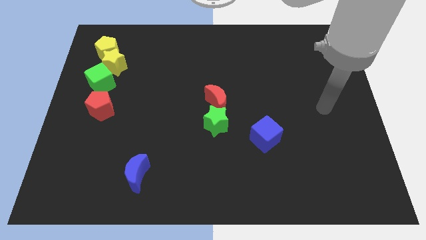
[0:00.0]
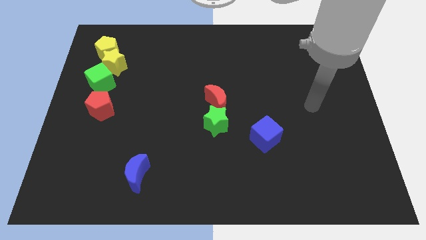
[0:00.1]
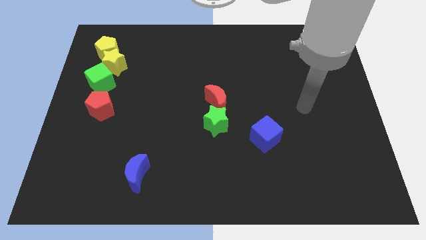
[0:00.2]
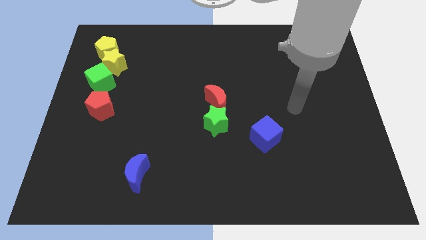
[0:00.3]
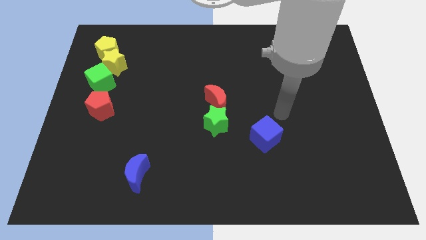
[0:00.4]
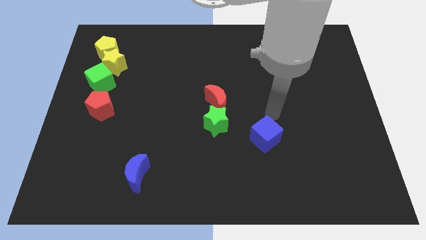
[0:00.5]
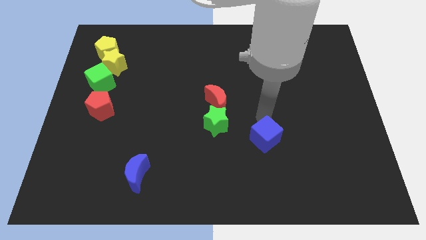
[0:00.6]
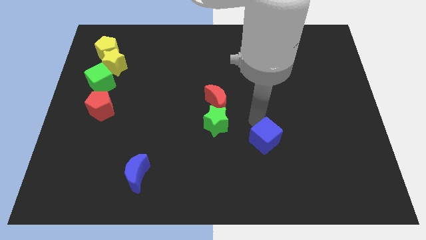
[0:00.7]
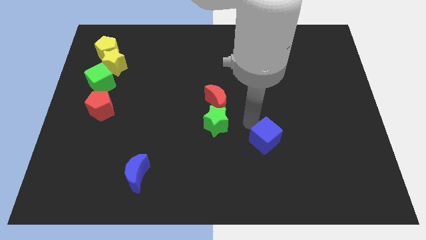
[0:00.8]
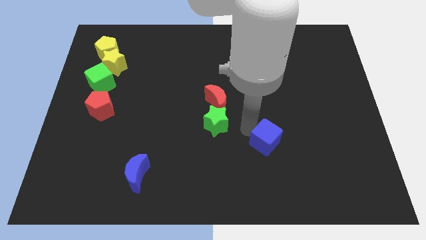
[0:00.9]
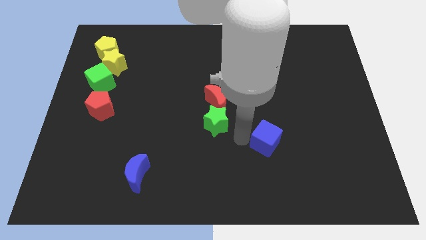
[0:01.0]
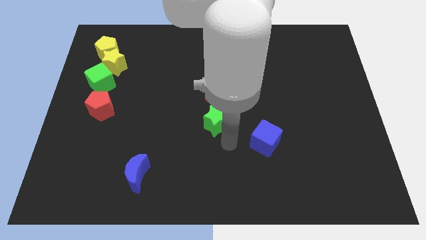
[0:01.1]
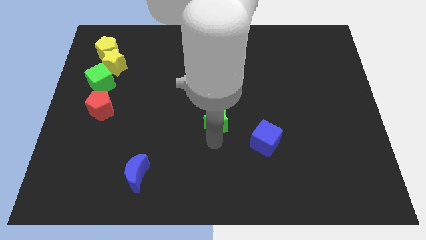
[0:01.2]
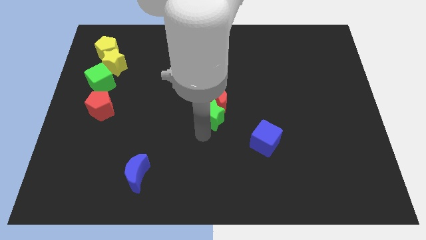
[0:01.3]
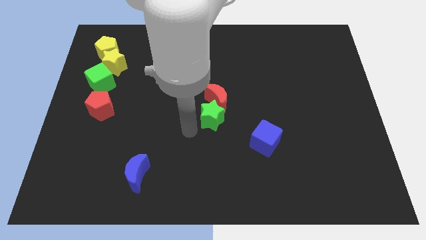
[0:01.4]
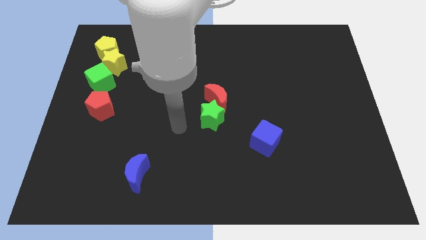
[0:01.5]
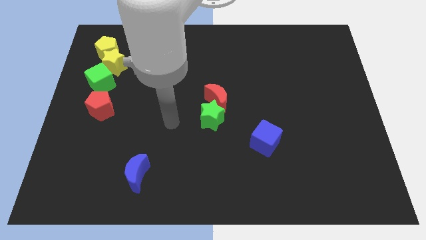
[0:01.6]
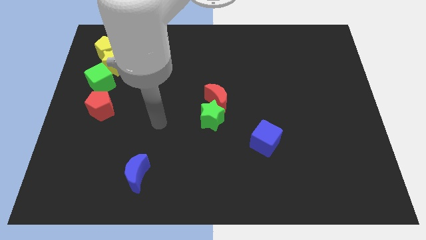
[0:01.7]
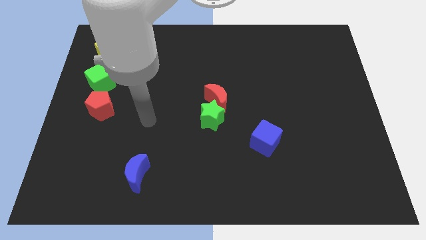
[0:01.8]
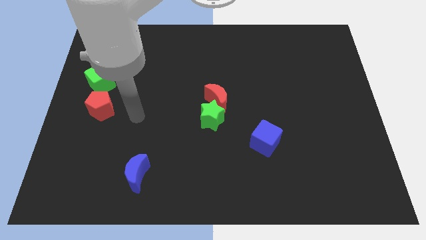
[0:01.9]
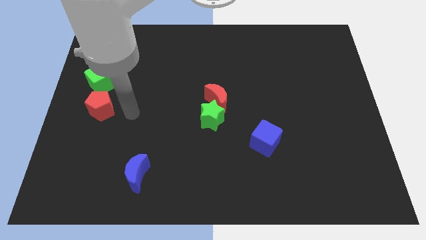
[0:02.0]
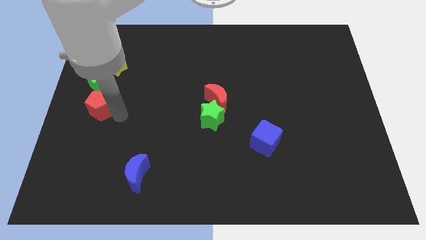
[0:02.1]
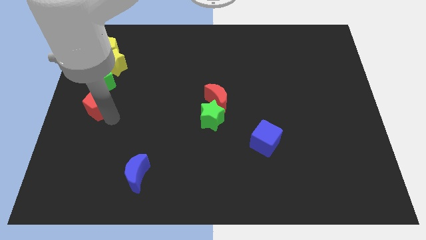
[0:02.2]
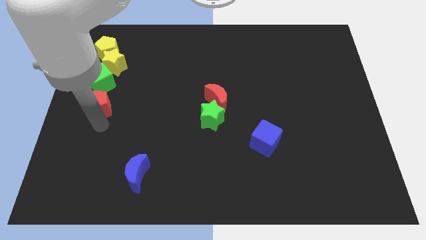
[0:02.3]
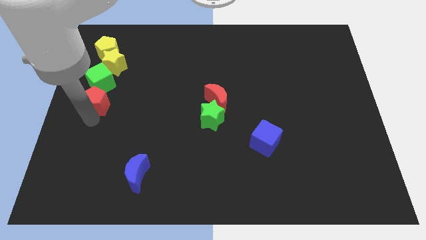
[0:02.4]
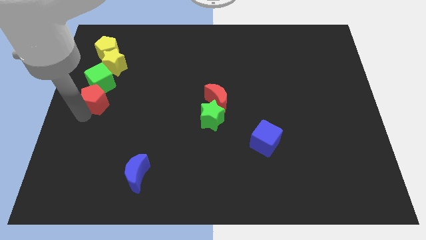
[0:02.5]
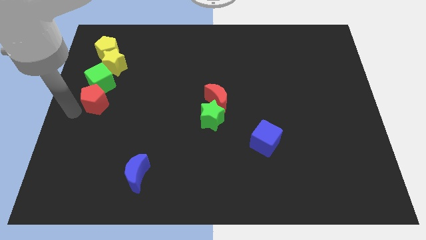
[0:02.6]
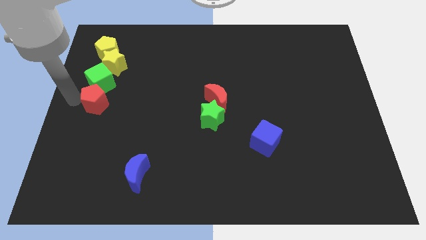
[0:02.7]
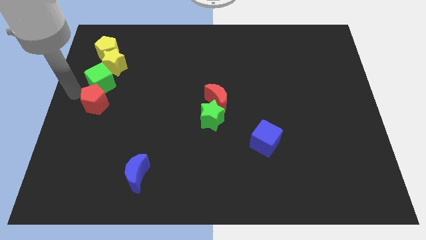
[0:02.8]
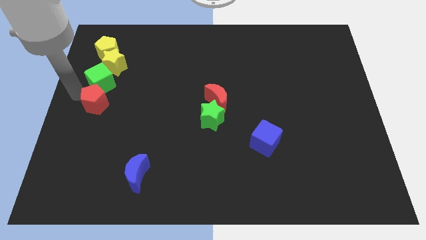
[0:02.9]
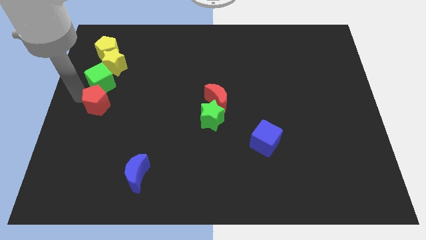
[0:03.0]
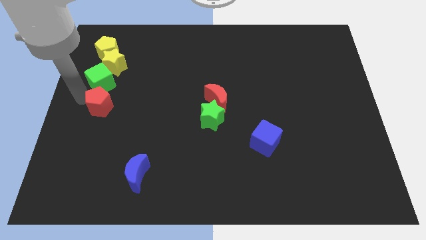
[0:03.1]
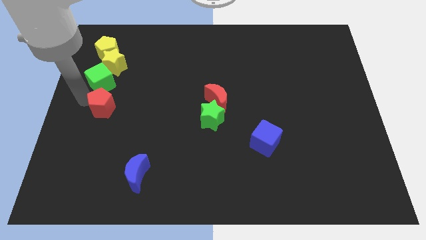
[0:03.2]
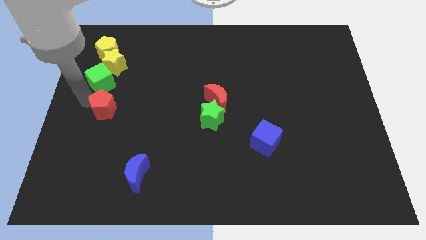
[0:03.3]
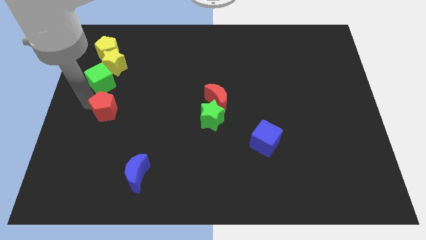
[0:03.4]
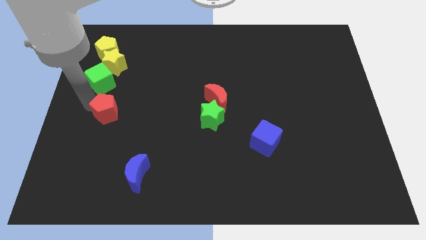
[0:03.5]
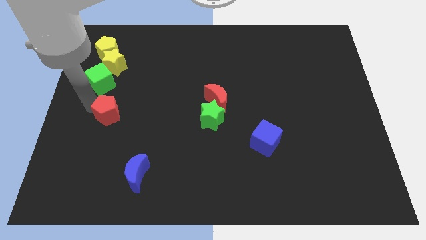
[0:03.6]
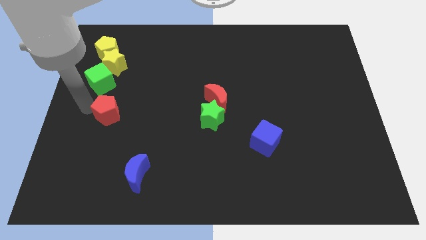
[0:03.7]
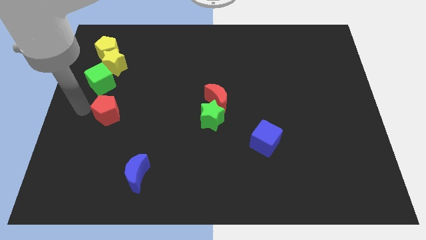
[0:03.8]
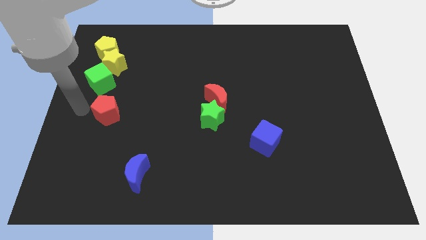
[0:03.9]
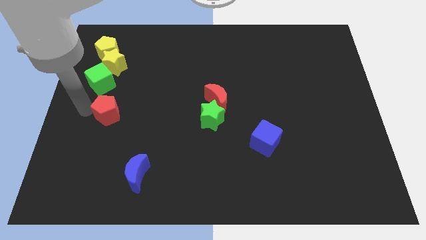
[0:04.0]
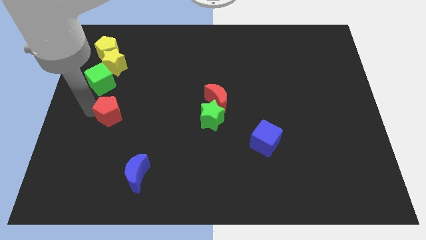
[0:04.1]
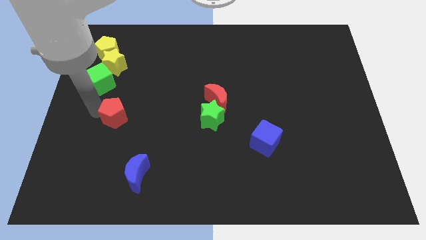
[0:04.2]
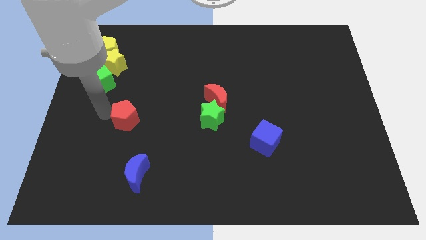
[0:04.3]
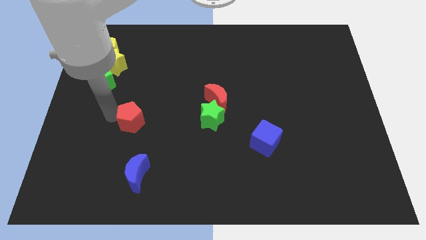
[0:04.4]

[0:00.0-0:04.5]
slightly slide the red pentagon to the right

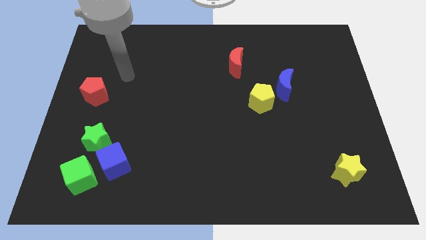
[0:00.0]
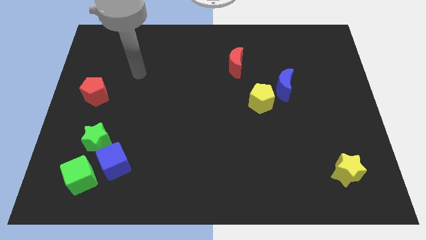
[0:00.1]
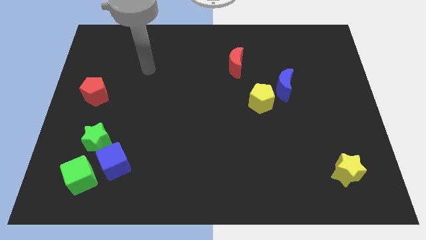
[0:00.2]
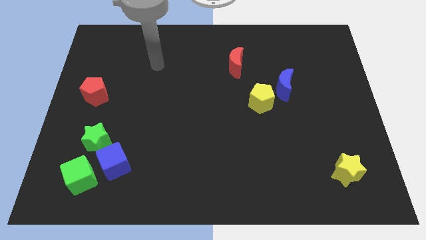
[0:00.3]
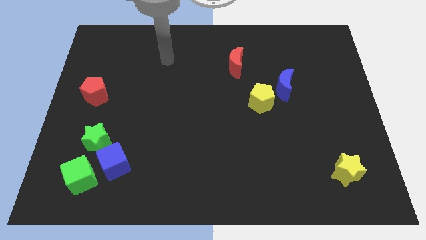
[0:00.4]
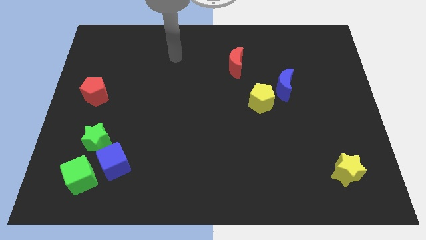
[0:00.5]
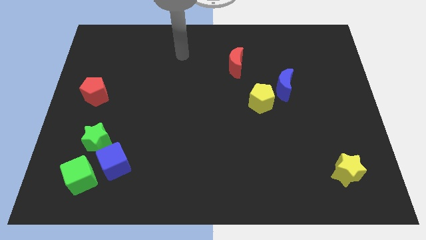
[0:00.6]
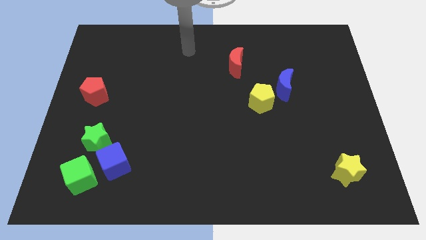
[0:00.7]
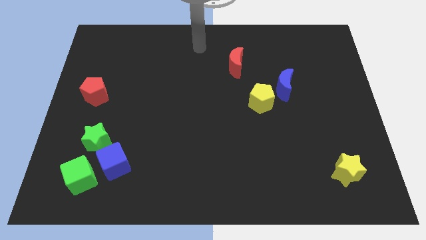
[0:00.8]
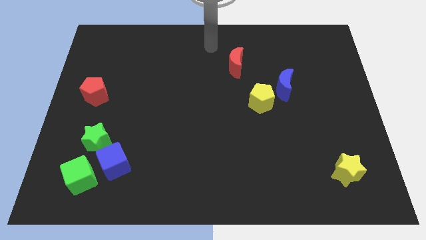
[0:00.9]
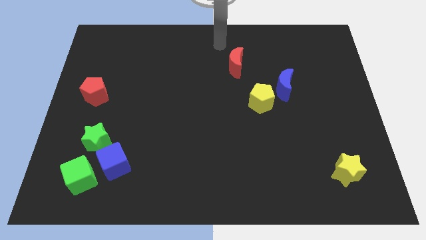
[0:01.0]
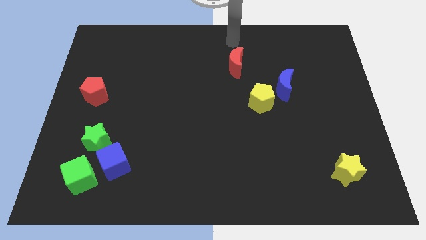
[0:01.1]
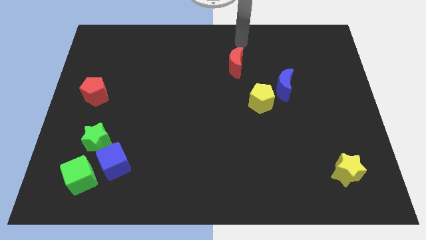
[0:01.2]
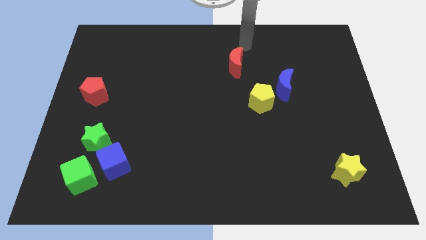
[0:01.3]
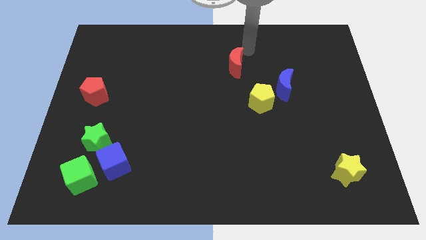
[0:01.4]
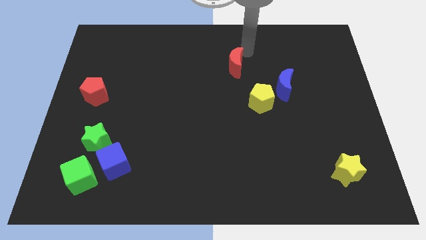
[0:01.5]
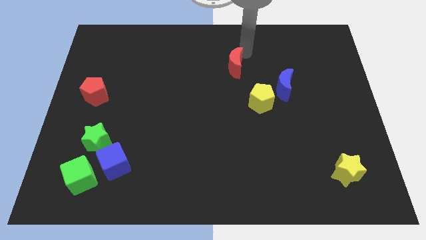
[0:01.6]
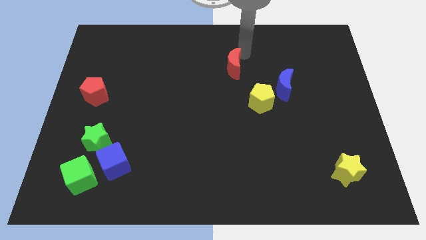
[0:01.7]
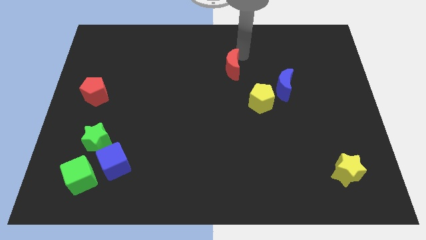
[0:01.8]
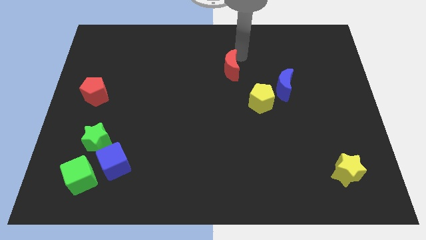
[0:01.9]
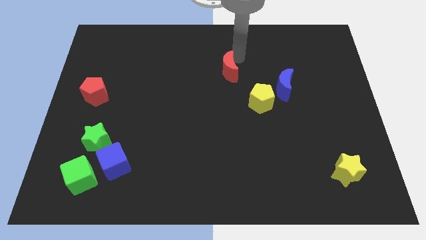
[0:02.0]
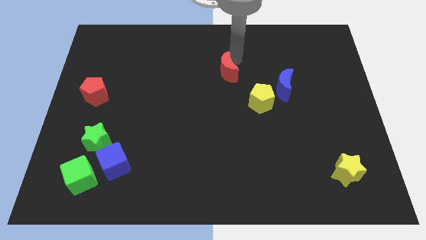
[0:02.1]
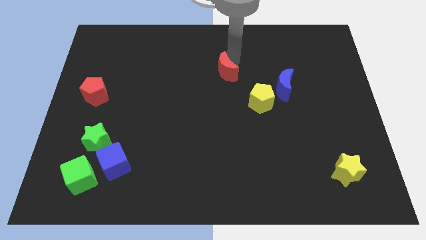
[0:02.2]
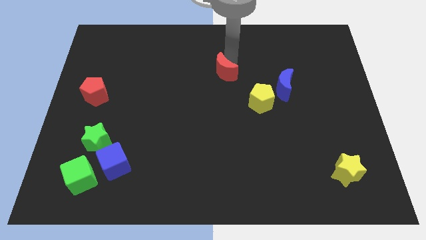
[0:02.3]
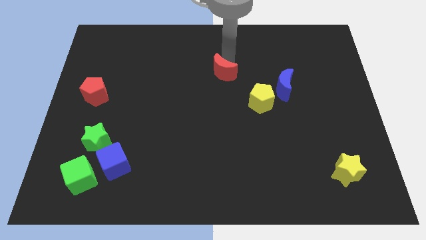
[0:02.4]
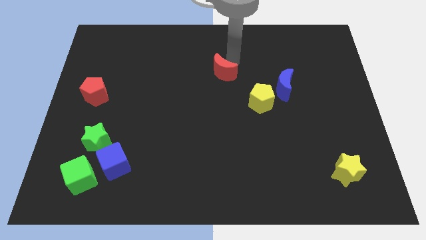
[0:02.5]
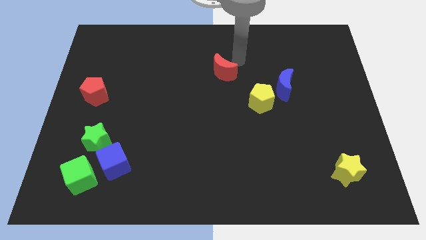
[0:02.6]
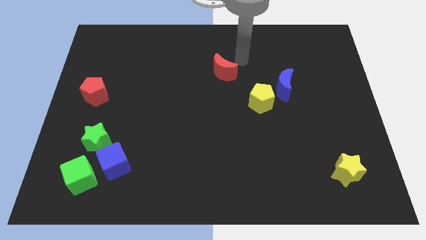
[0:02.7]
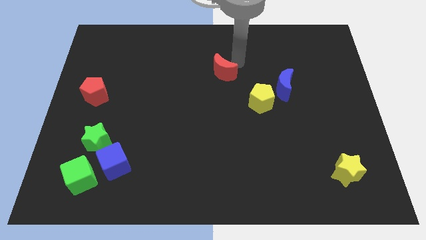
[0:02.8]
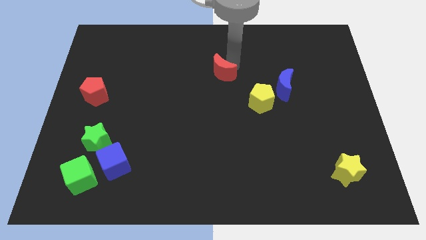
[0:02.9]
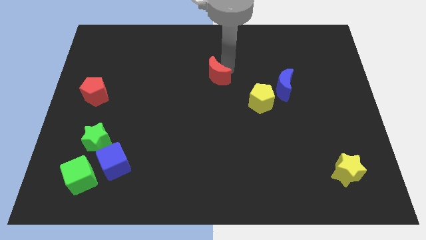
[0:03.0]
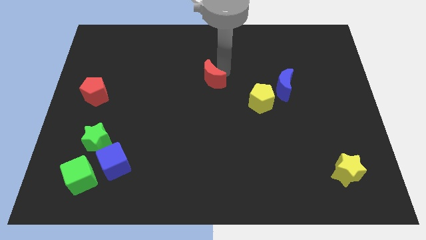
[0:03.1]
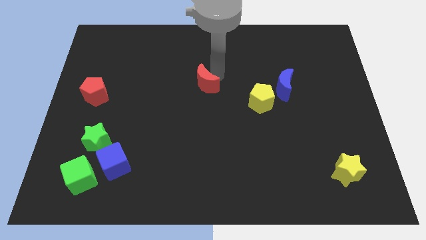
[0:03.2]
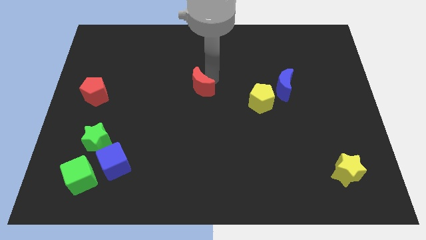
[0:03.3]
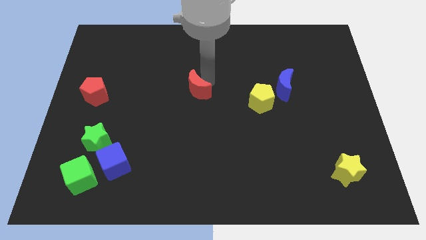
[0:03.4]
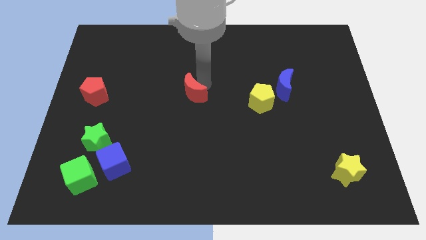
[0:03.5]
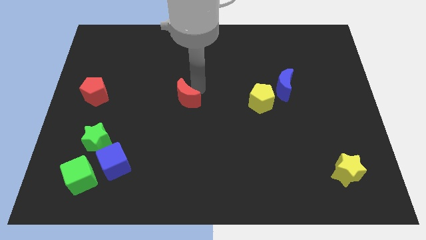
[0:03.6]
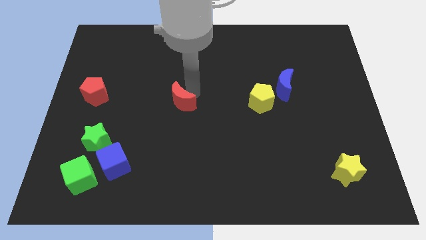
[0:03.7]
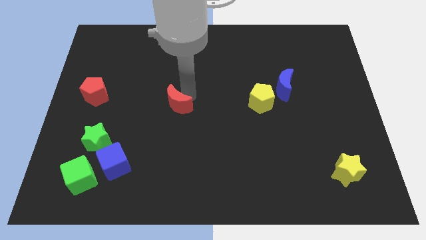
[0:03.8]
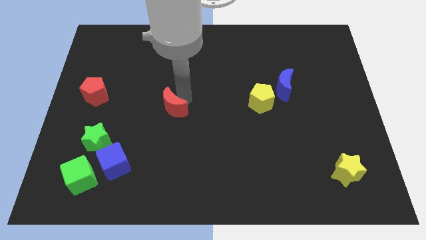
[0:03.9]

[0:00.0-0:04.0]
slide the red moon diagonally downwards and left
